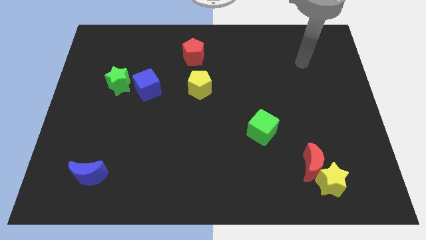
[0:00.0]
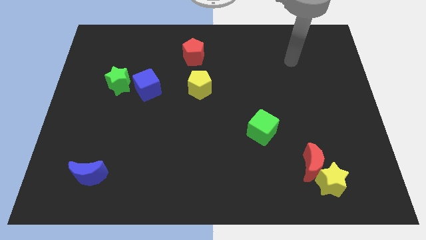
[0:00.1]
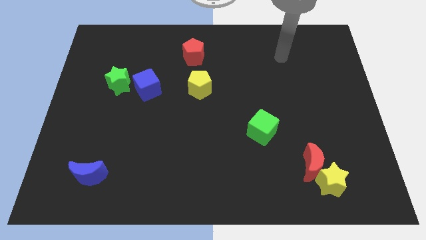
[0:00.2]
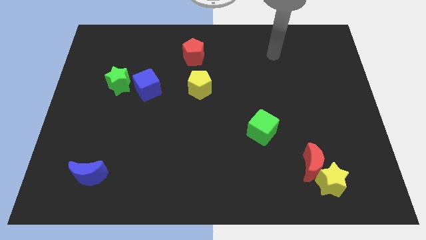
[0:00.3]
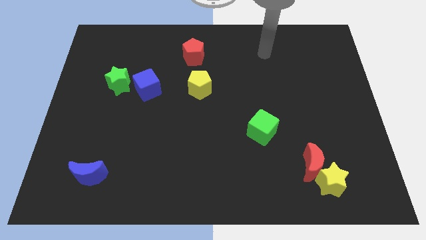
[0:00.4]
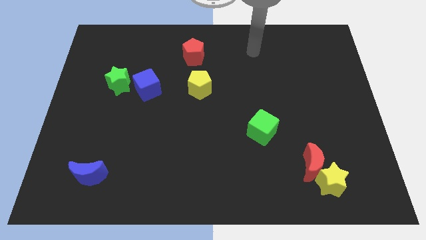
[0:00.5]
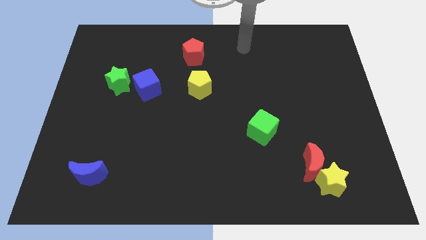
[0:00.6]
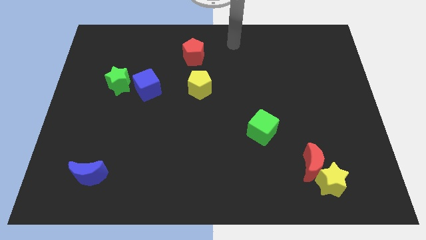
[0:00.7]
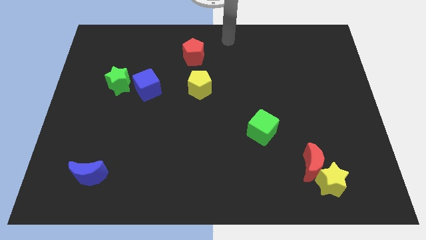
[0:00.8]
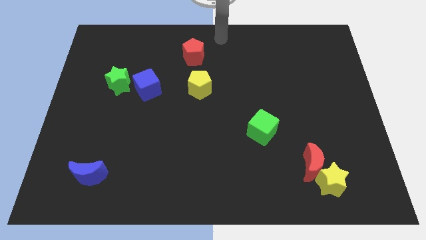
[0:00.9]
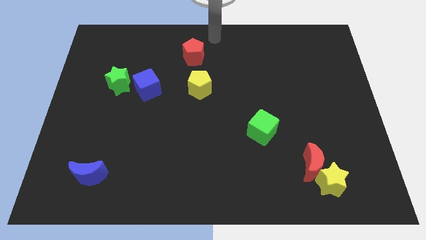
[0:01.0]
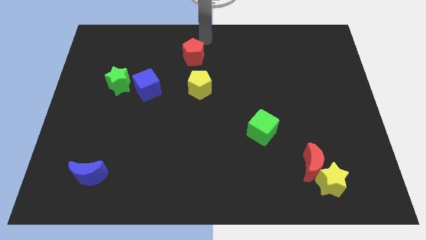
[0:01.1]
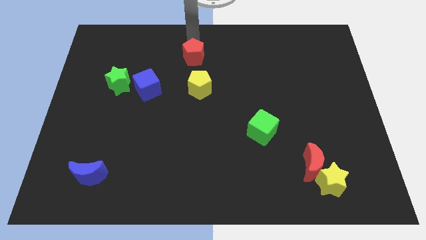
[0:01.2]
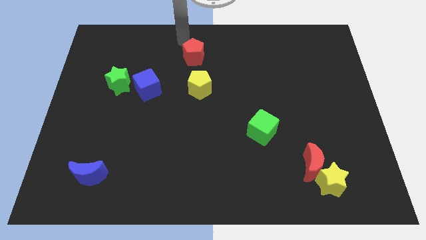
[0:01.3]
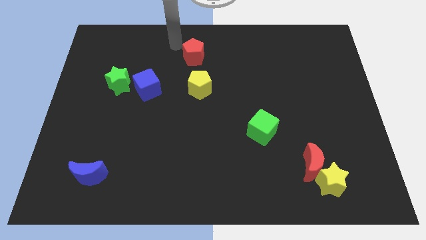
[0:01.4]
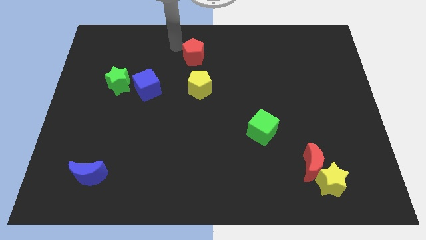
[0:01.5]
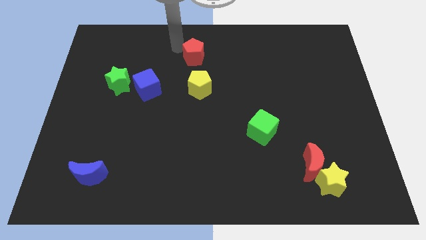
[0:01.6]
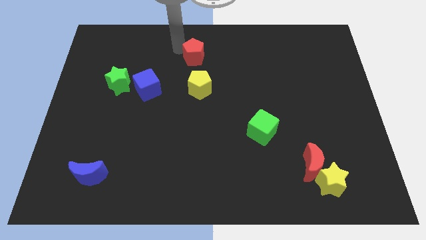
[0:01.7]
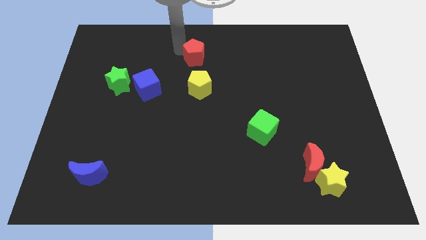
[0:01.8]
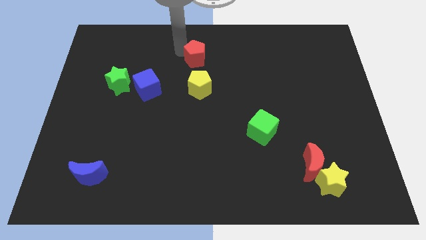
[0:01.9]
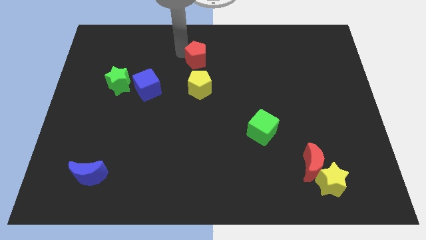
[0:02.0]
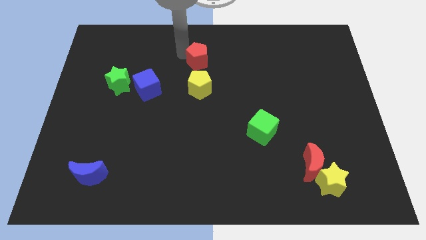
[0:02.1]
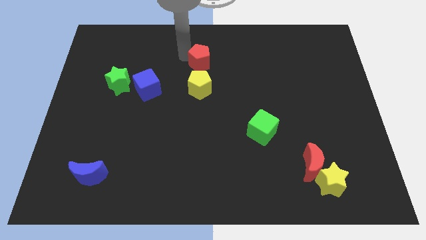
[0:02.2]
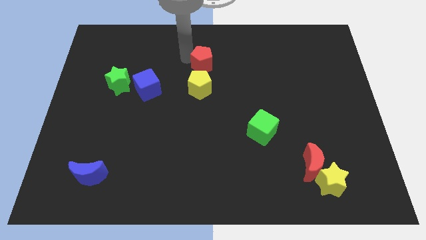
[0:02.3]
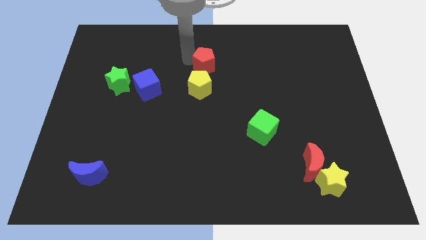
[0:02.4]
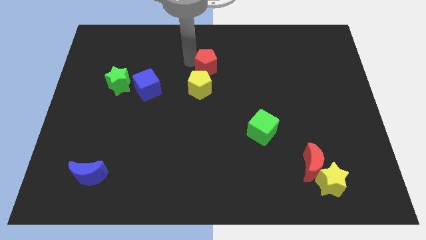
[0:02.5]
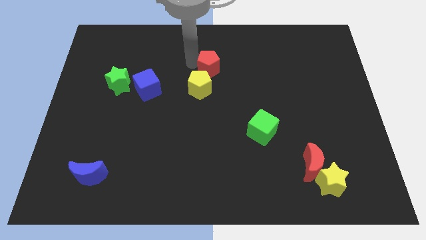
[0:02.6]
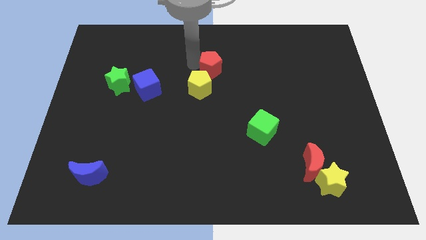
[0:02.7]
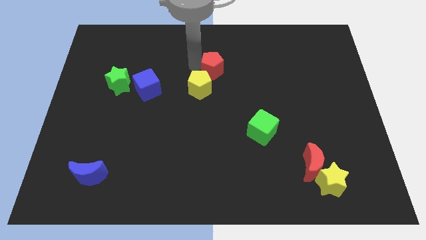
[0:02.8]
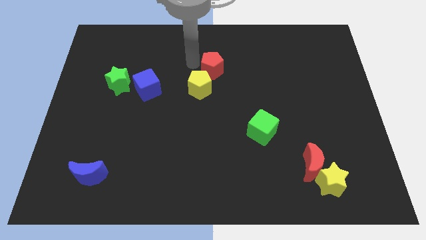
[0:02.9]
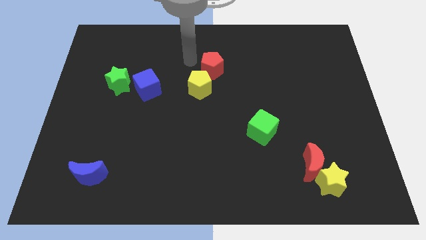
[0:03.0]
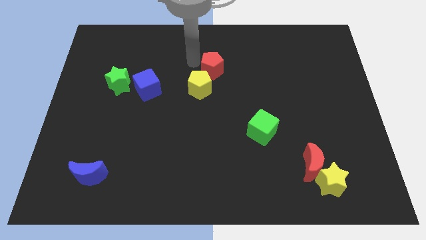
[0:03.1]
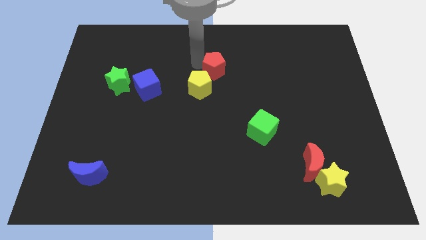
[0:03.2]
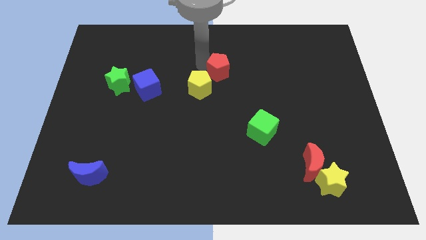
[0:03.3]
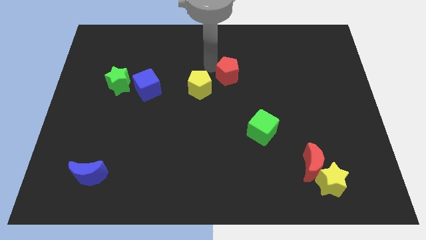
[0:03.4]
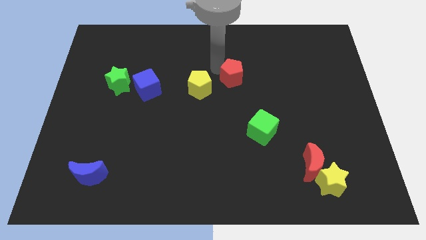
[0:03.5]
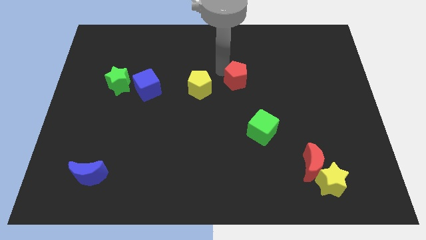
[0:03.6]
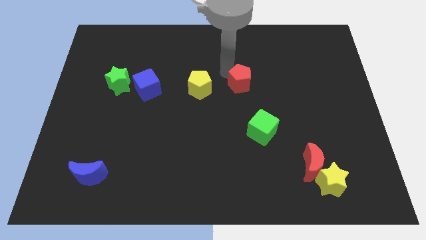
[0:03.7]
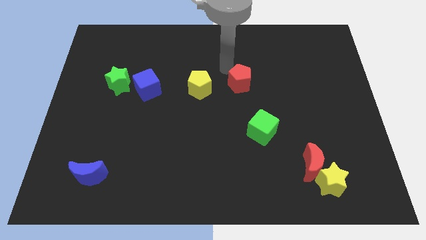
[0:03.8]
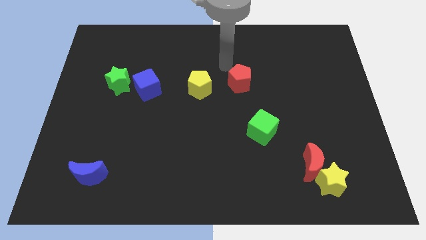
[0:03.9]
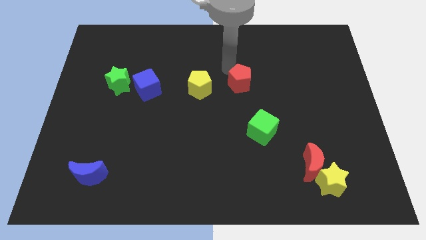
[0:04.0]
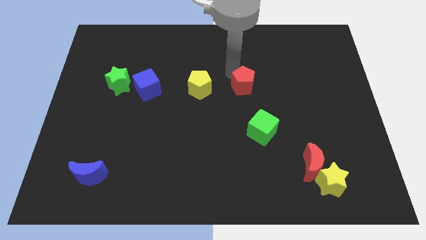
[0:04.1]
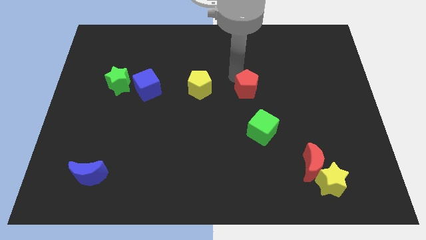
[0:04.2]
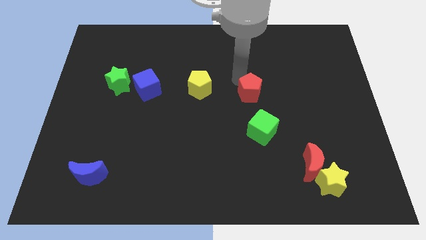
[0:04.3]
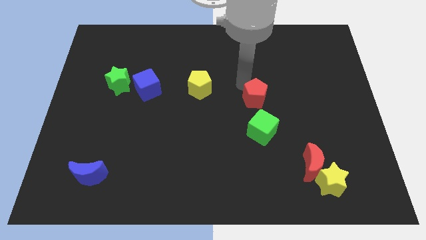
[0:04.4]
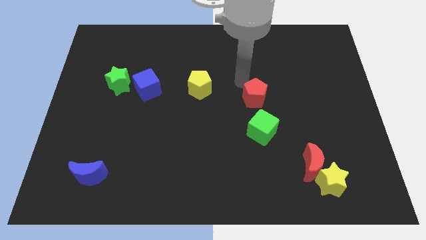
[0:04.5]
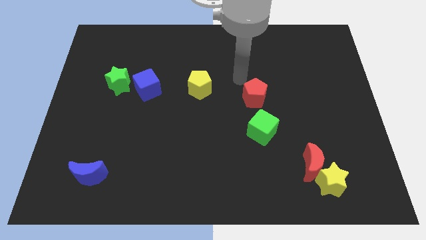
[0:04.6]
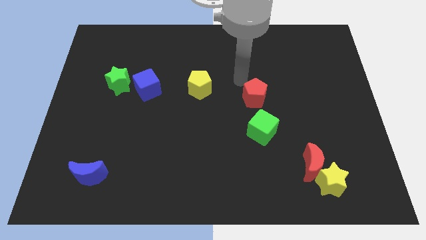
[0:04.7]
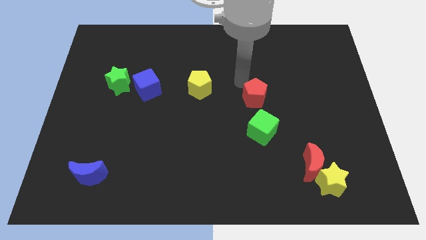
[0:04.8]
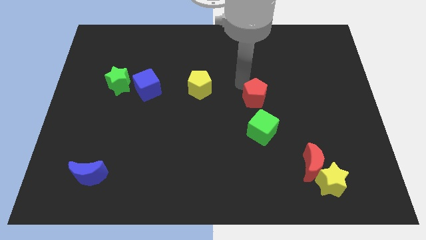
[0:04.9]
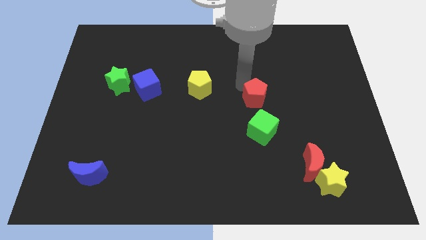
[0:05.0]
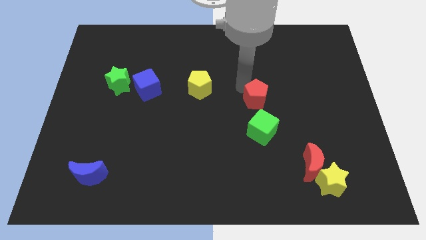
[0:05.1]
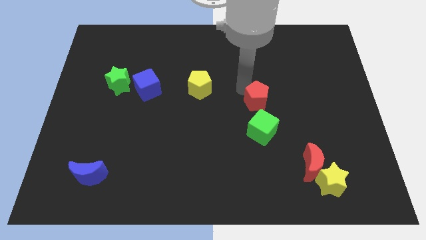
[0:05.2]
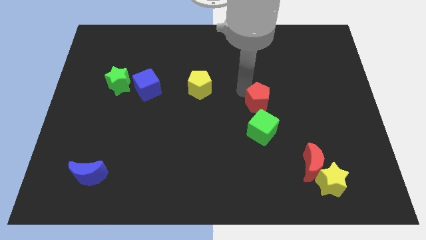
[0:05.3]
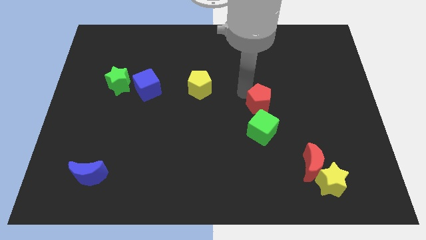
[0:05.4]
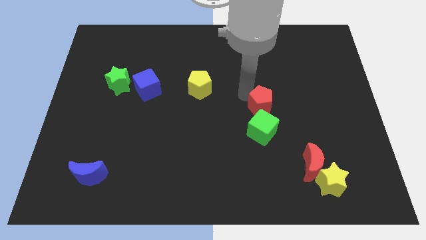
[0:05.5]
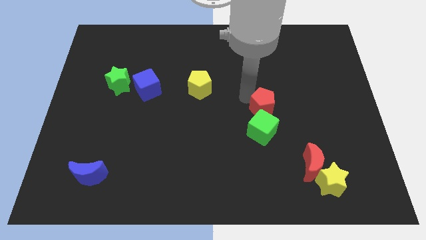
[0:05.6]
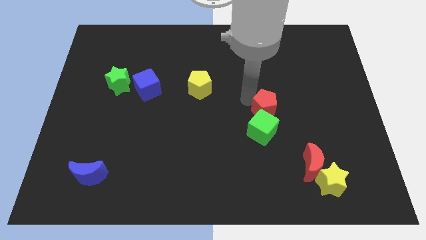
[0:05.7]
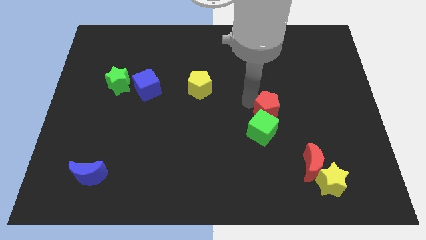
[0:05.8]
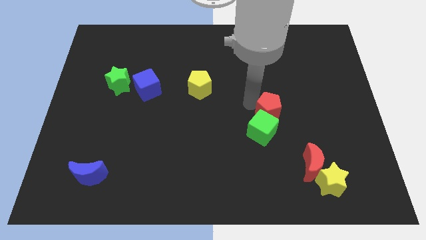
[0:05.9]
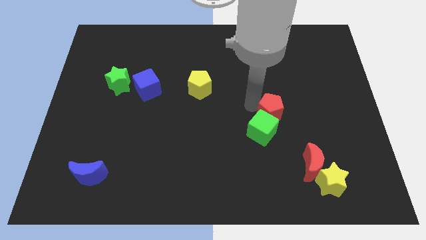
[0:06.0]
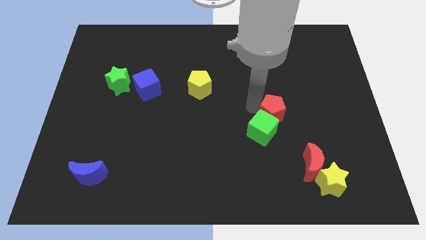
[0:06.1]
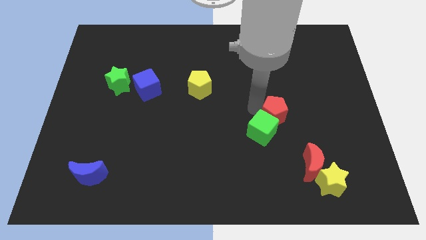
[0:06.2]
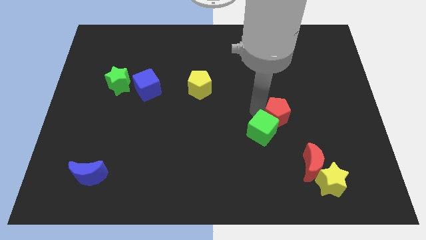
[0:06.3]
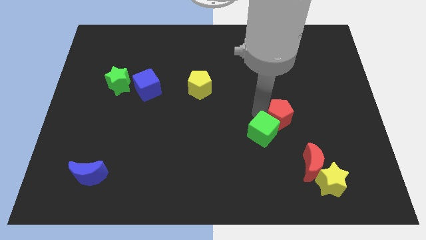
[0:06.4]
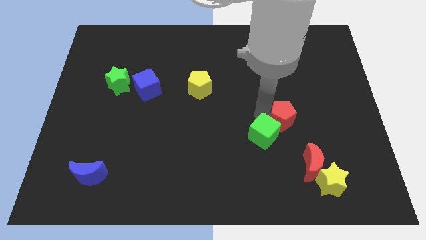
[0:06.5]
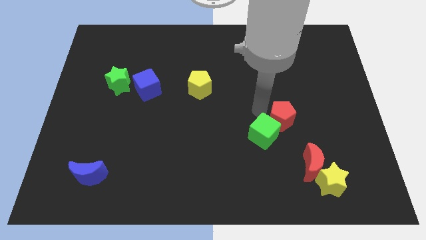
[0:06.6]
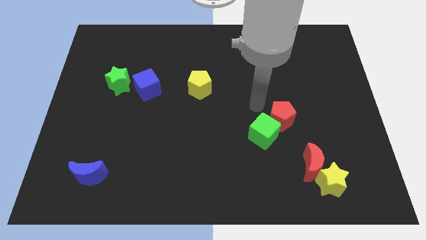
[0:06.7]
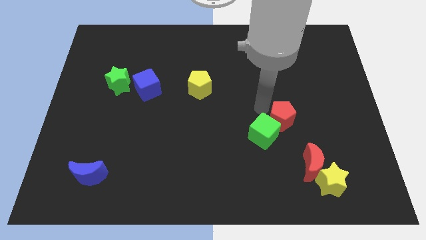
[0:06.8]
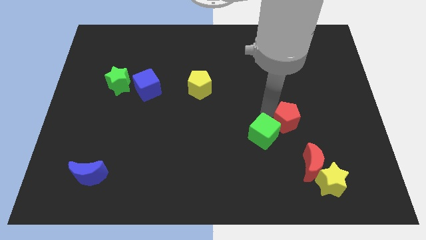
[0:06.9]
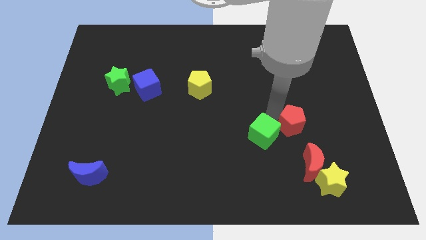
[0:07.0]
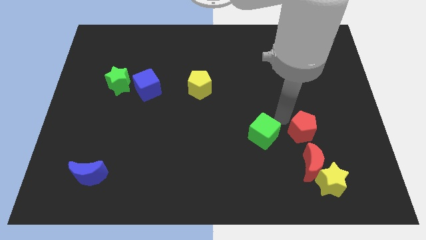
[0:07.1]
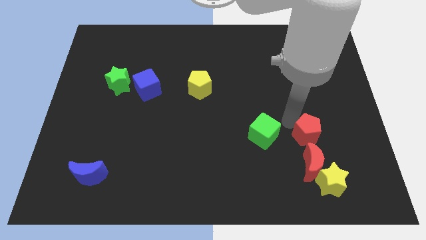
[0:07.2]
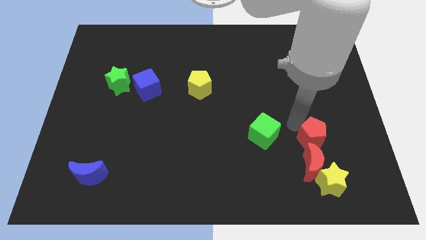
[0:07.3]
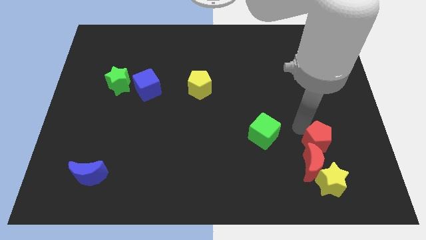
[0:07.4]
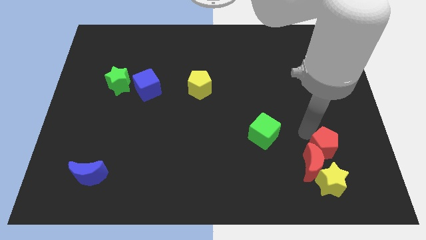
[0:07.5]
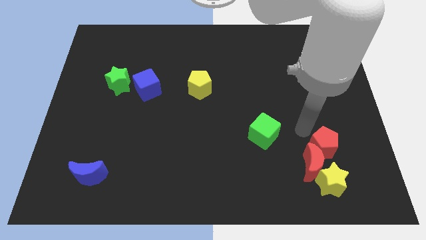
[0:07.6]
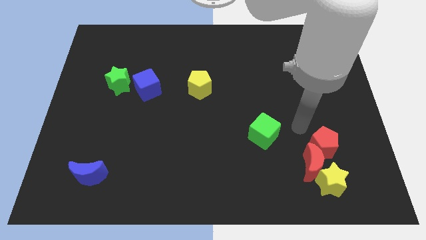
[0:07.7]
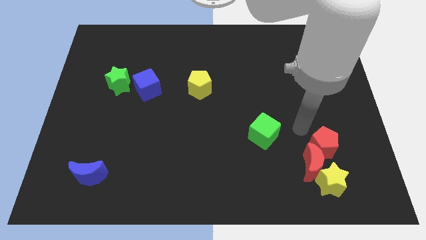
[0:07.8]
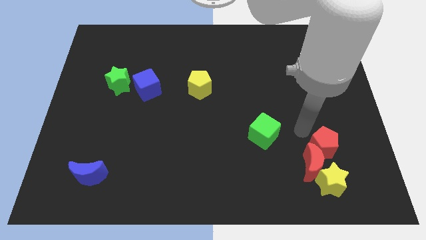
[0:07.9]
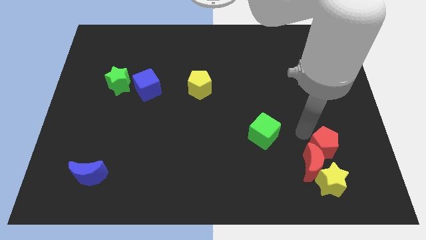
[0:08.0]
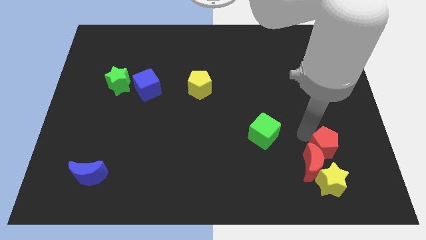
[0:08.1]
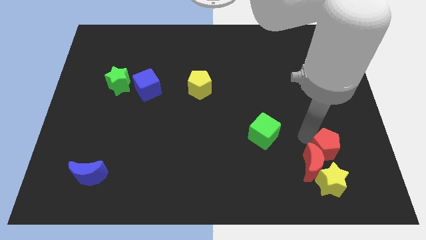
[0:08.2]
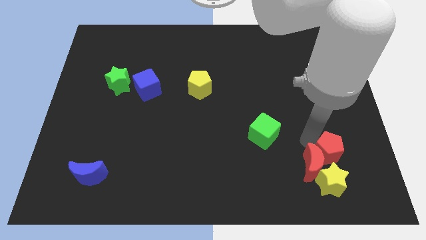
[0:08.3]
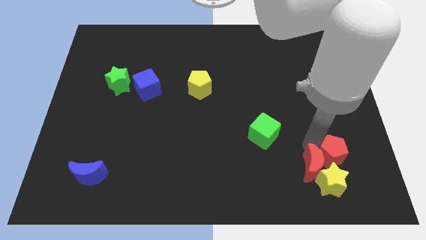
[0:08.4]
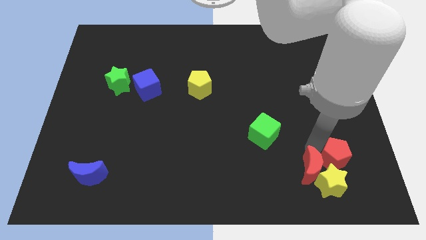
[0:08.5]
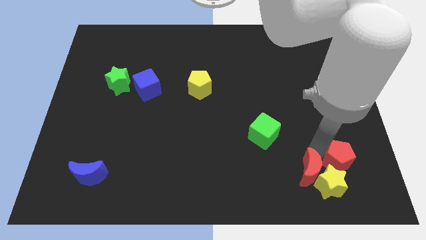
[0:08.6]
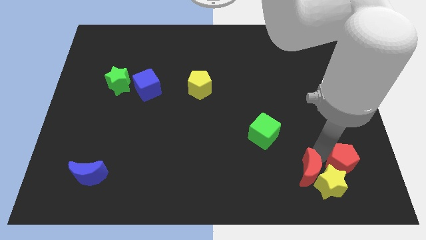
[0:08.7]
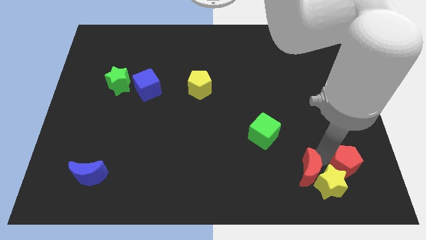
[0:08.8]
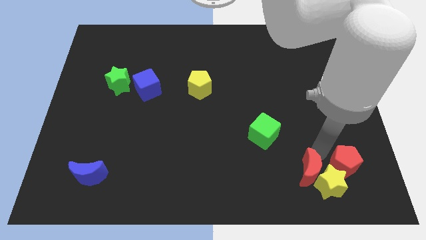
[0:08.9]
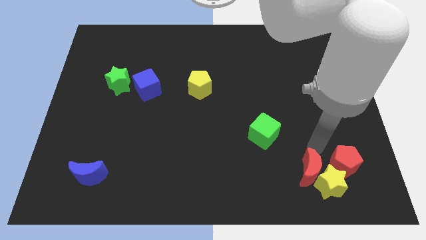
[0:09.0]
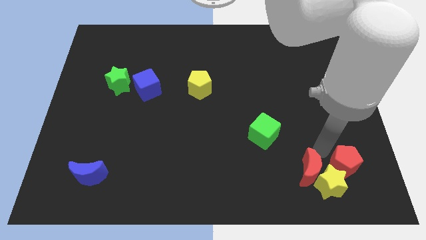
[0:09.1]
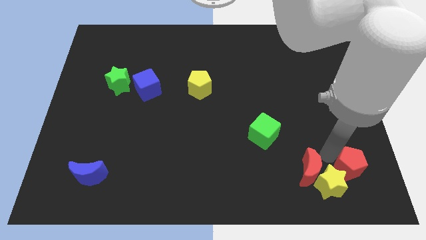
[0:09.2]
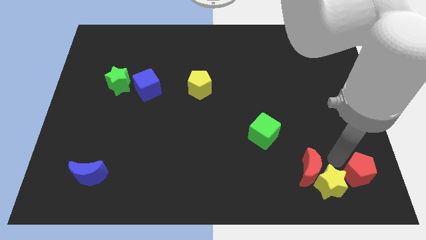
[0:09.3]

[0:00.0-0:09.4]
put the red pentagon to the bottom right corner
